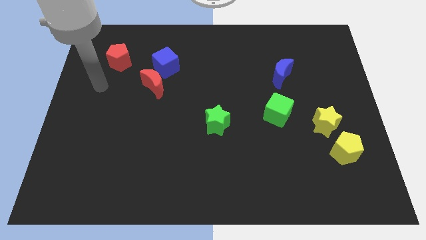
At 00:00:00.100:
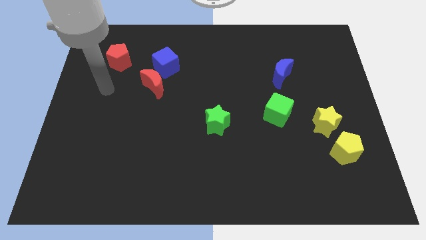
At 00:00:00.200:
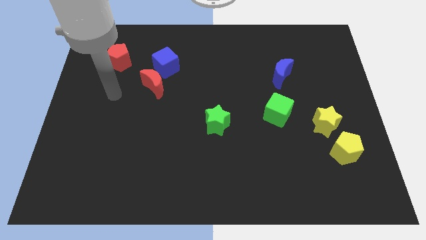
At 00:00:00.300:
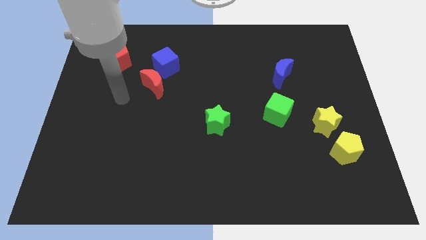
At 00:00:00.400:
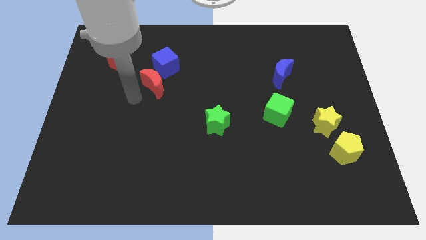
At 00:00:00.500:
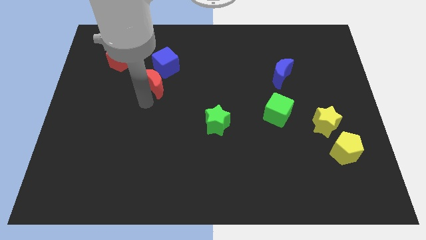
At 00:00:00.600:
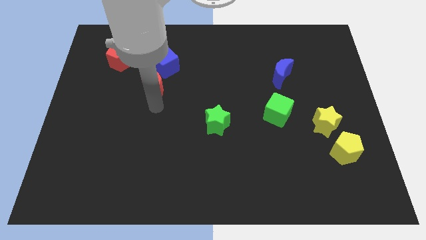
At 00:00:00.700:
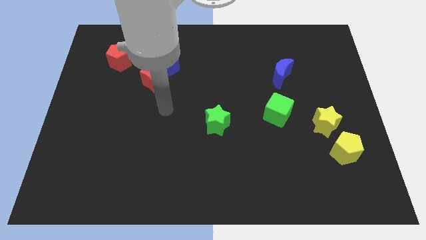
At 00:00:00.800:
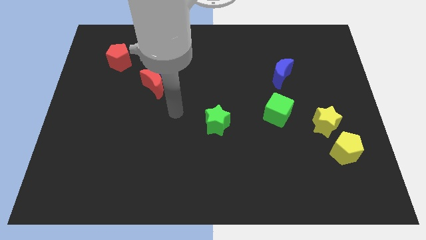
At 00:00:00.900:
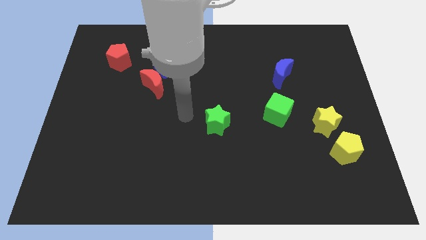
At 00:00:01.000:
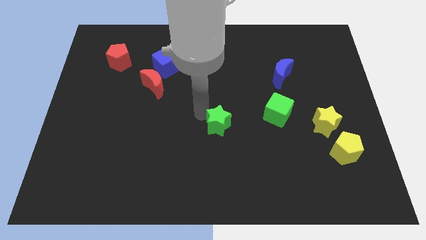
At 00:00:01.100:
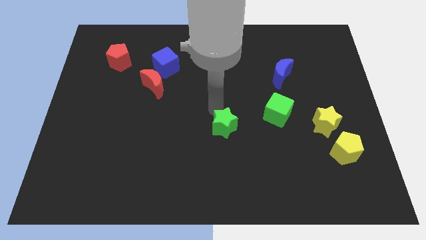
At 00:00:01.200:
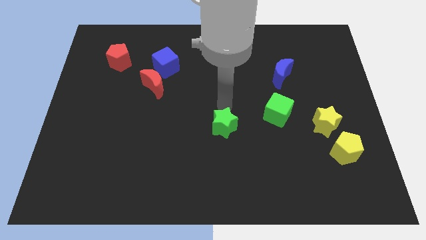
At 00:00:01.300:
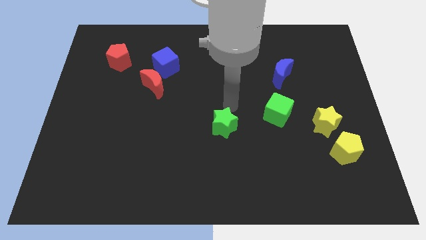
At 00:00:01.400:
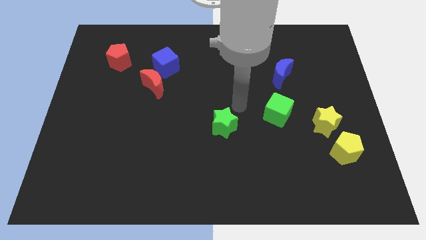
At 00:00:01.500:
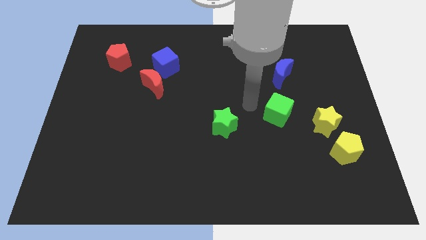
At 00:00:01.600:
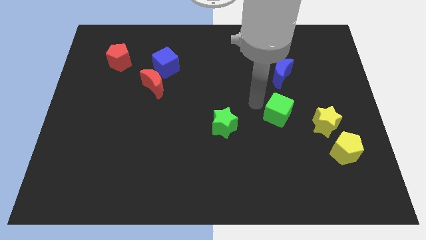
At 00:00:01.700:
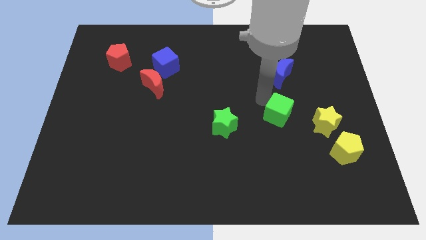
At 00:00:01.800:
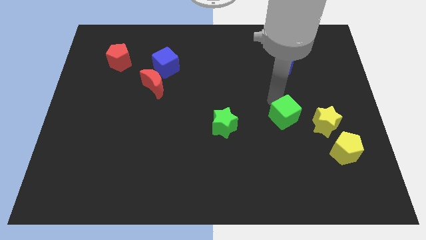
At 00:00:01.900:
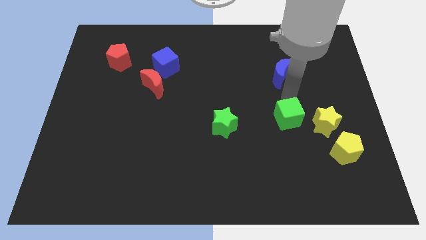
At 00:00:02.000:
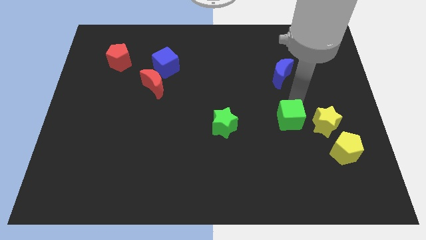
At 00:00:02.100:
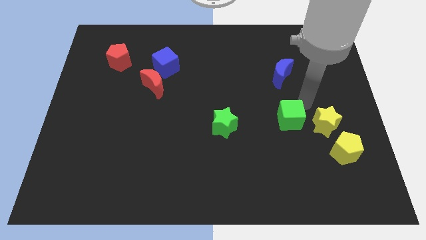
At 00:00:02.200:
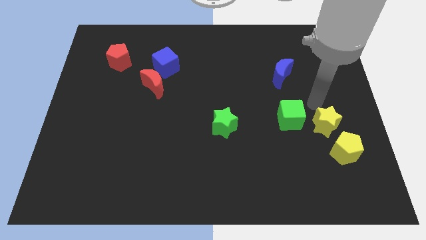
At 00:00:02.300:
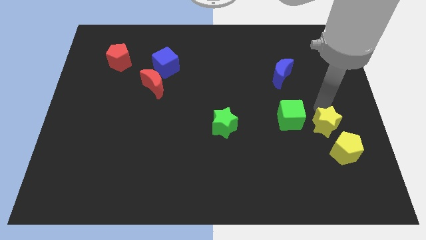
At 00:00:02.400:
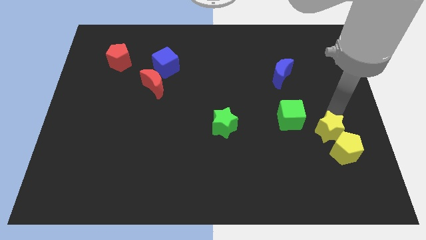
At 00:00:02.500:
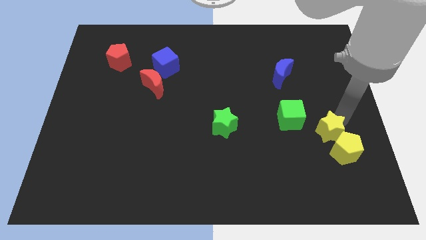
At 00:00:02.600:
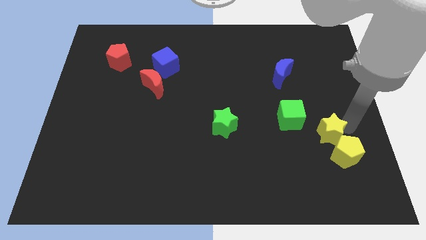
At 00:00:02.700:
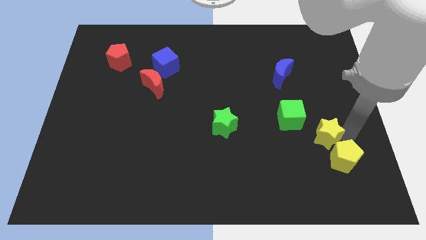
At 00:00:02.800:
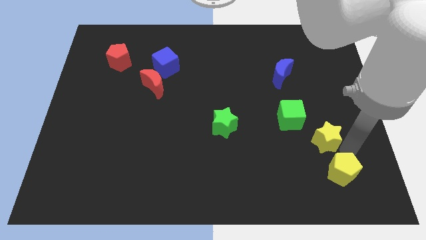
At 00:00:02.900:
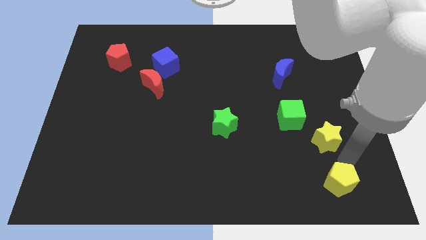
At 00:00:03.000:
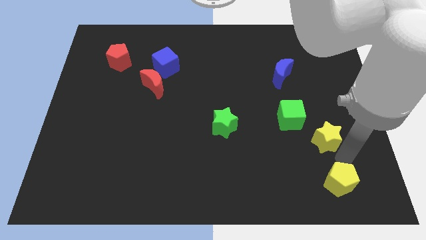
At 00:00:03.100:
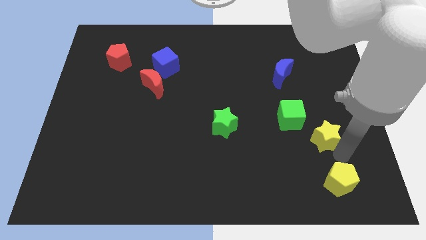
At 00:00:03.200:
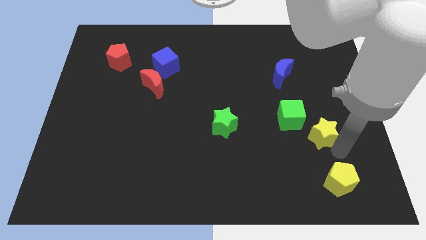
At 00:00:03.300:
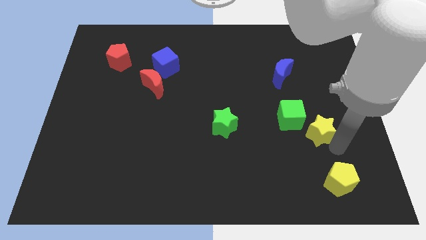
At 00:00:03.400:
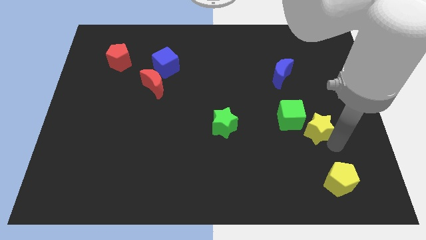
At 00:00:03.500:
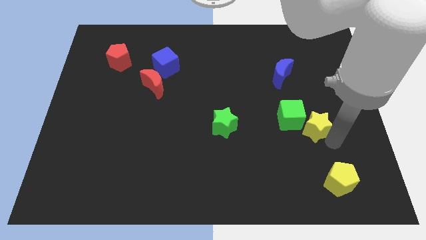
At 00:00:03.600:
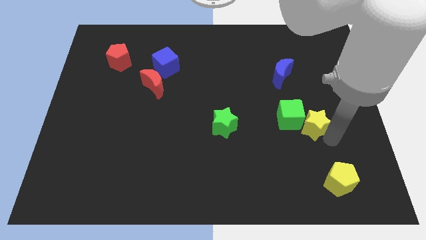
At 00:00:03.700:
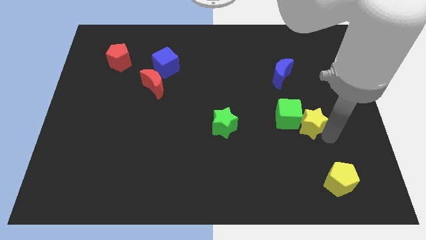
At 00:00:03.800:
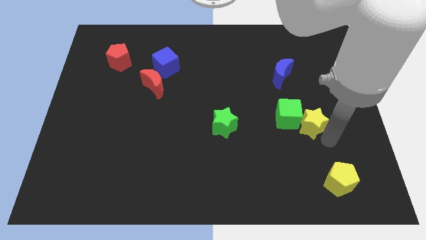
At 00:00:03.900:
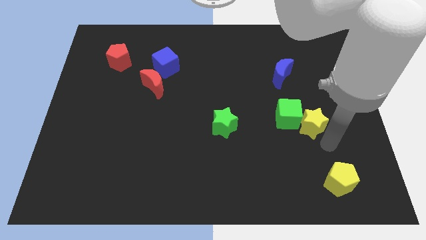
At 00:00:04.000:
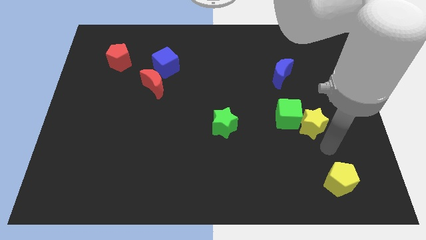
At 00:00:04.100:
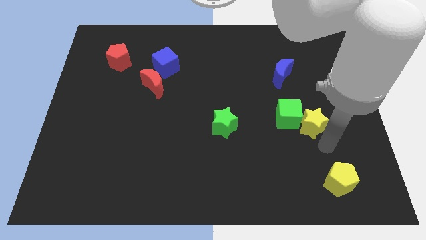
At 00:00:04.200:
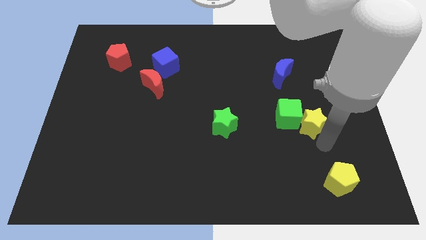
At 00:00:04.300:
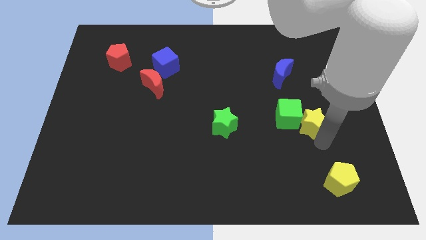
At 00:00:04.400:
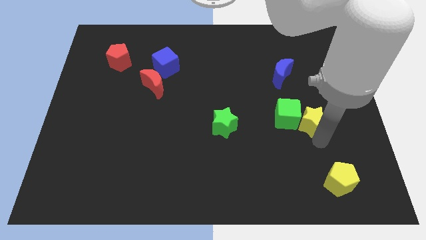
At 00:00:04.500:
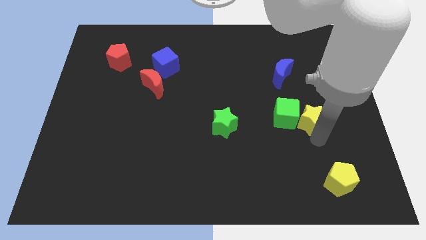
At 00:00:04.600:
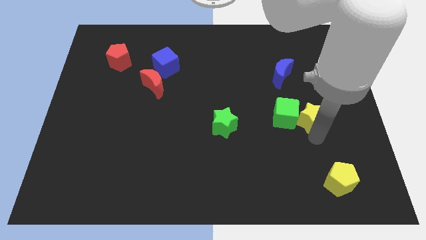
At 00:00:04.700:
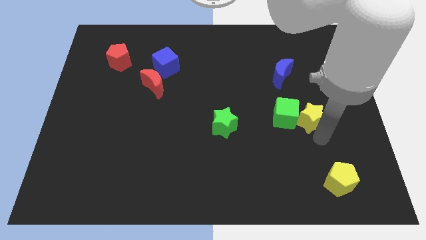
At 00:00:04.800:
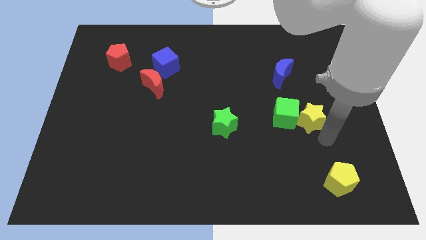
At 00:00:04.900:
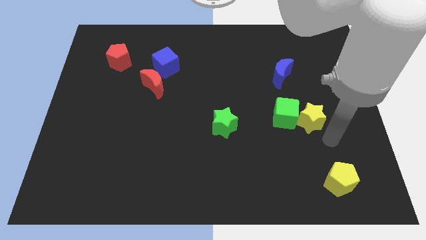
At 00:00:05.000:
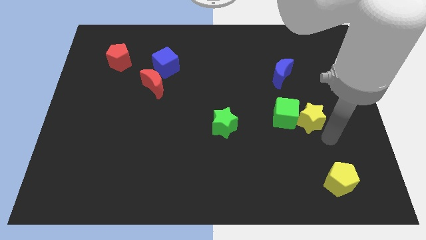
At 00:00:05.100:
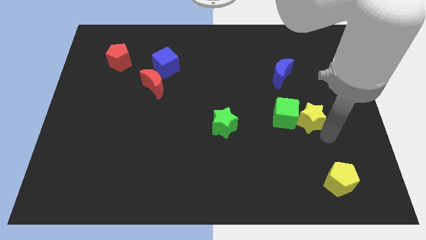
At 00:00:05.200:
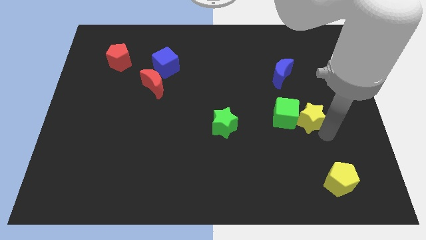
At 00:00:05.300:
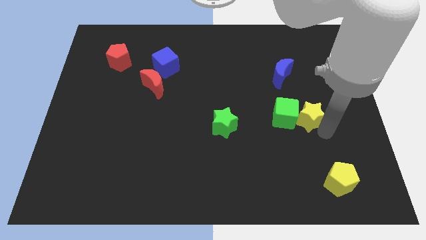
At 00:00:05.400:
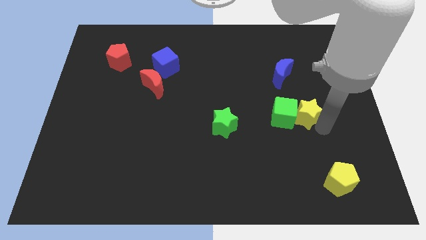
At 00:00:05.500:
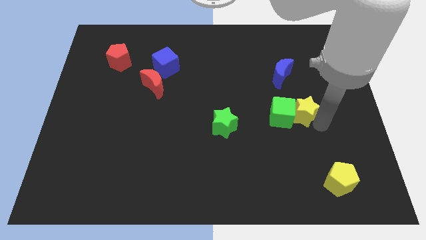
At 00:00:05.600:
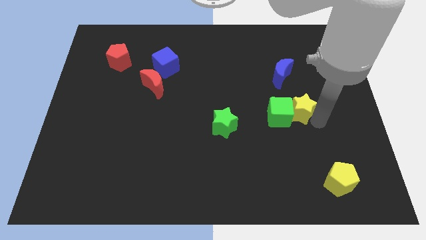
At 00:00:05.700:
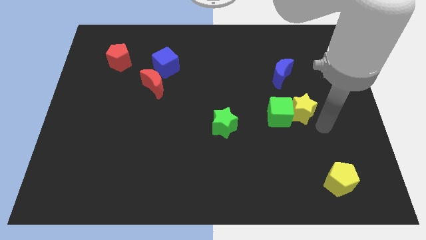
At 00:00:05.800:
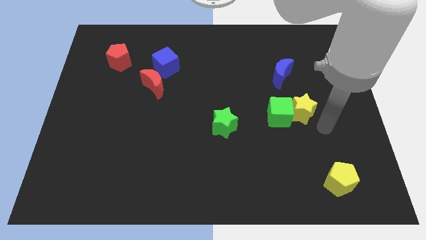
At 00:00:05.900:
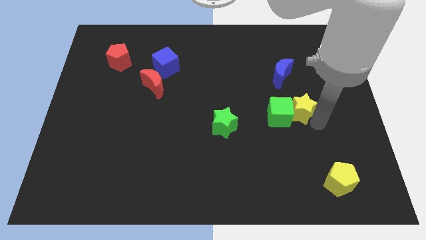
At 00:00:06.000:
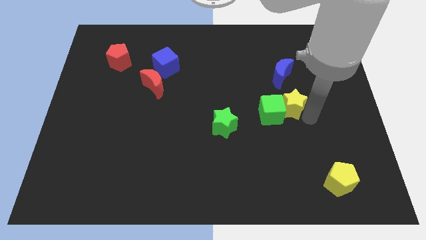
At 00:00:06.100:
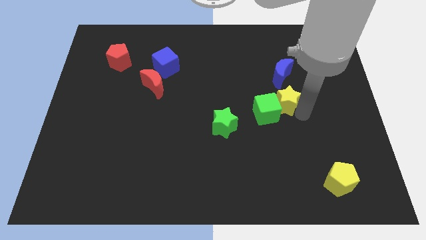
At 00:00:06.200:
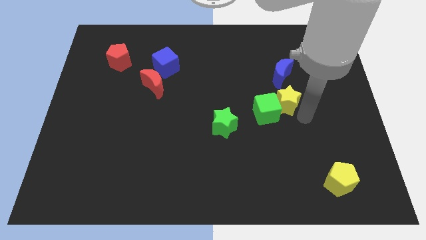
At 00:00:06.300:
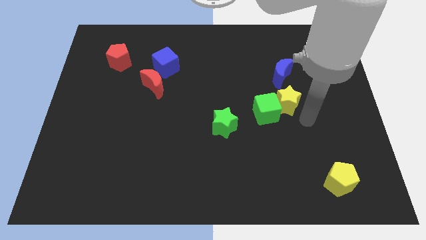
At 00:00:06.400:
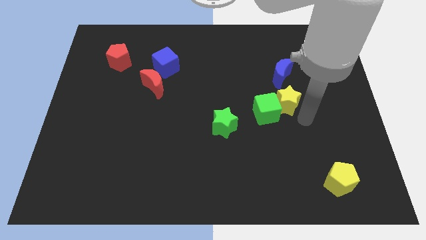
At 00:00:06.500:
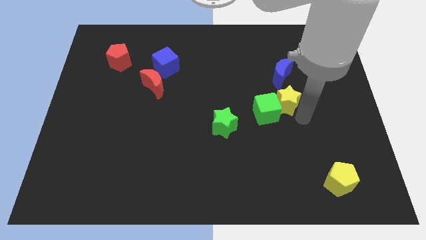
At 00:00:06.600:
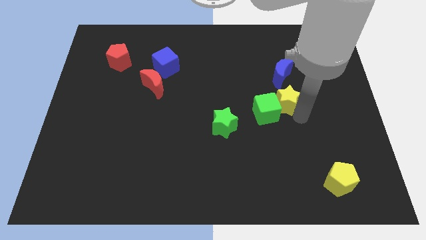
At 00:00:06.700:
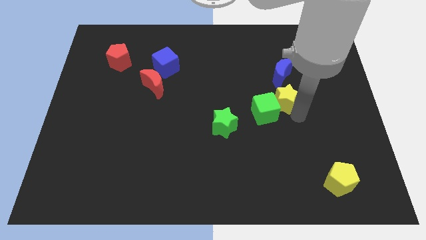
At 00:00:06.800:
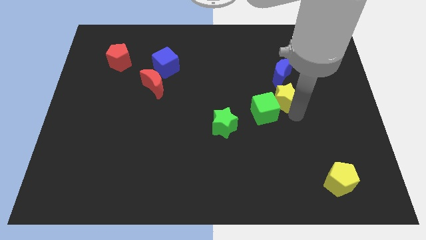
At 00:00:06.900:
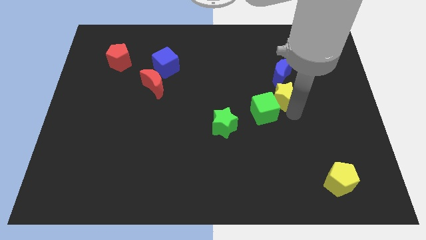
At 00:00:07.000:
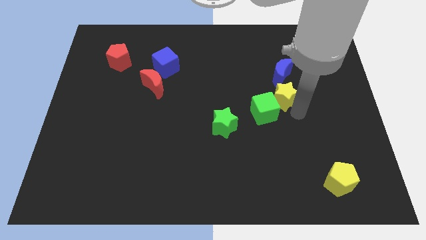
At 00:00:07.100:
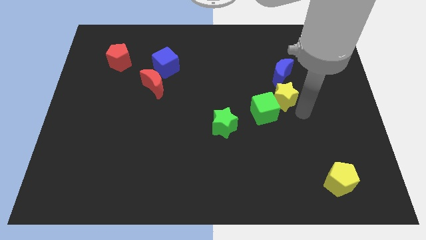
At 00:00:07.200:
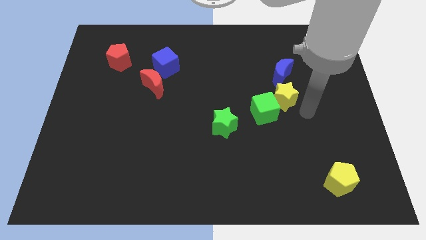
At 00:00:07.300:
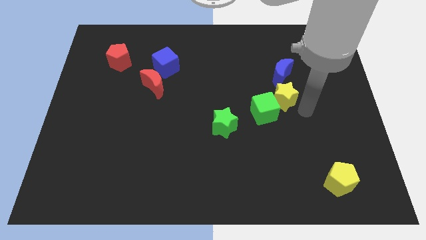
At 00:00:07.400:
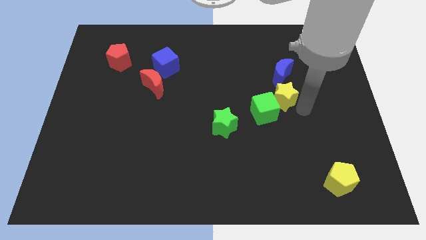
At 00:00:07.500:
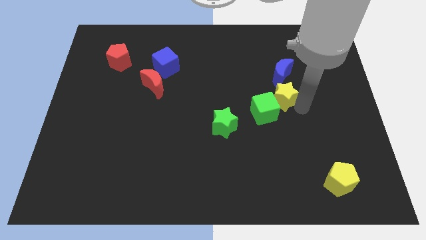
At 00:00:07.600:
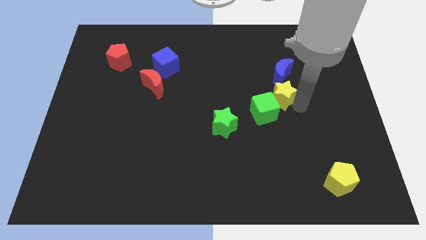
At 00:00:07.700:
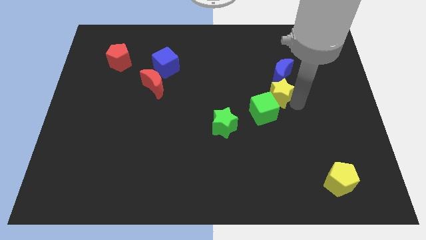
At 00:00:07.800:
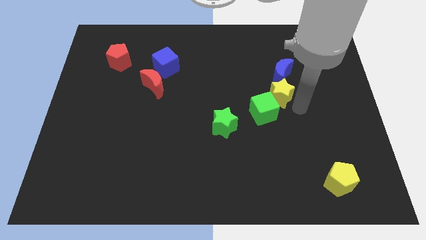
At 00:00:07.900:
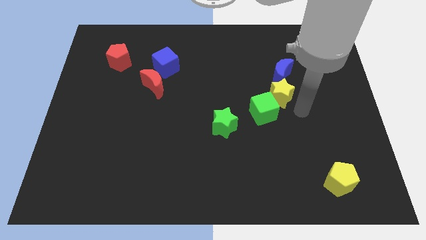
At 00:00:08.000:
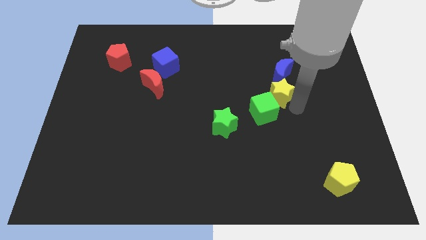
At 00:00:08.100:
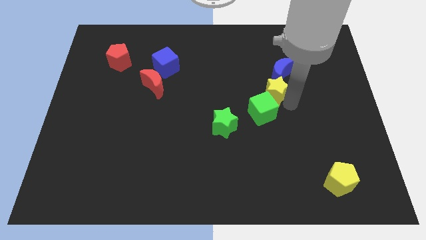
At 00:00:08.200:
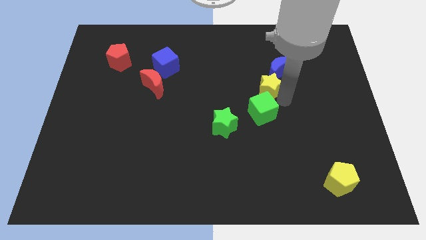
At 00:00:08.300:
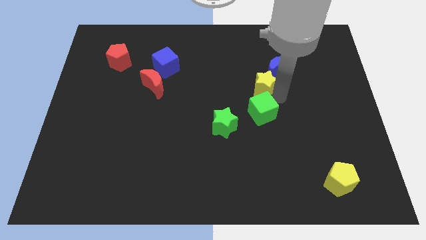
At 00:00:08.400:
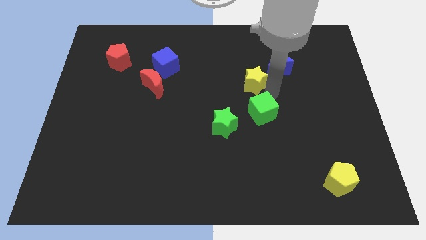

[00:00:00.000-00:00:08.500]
move the yellow star left of the blue moon
